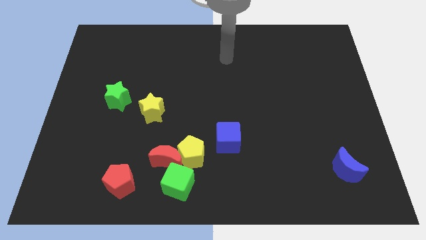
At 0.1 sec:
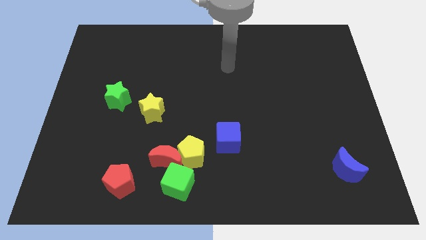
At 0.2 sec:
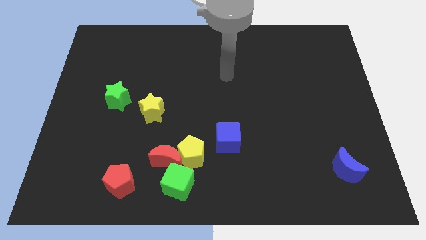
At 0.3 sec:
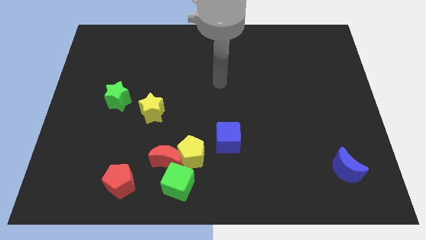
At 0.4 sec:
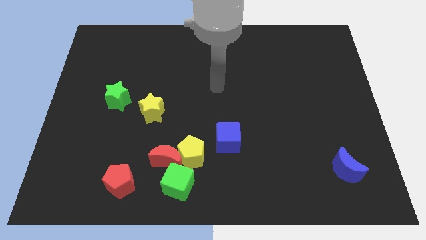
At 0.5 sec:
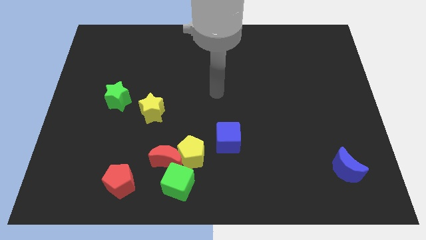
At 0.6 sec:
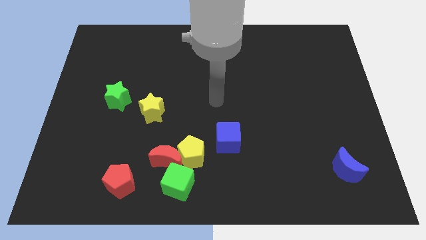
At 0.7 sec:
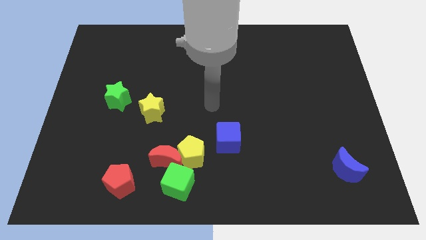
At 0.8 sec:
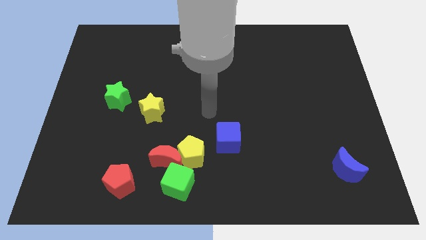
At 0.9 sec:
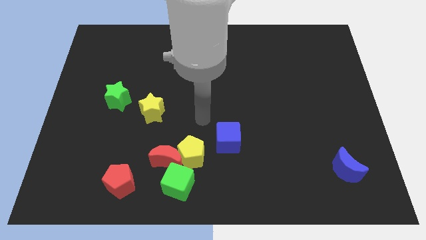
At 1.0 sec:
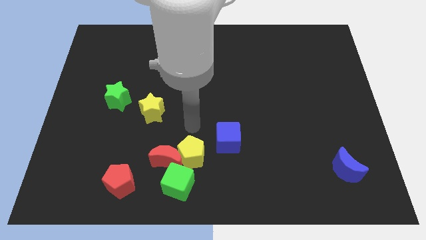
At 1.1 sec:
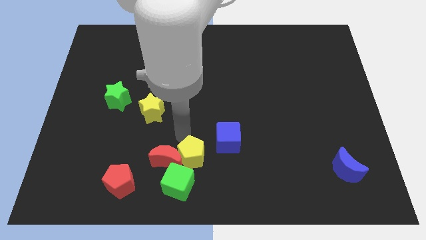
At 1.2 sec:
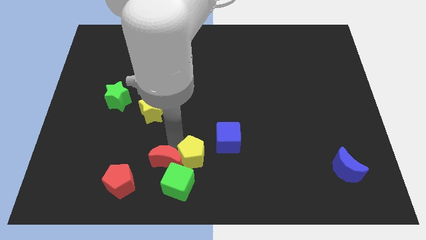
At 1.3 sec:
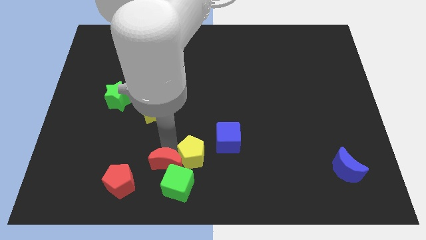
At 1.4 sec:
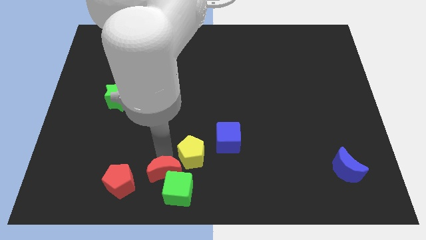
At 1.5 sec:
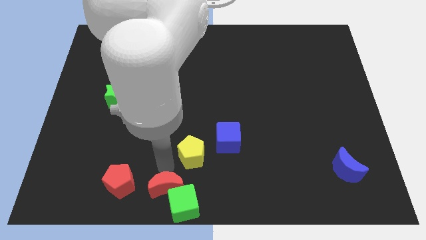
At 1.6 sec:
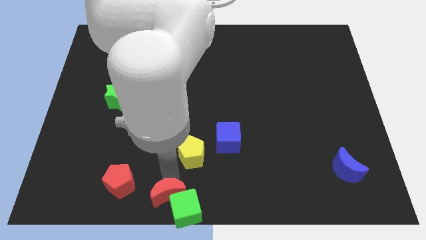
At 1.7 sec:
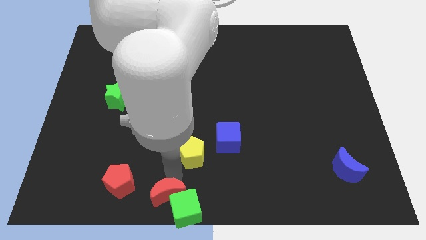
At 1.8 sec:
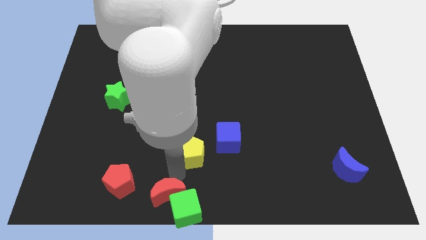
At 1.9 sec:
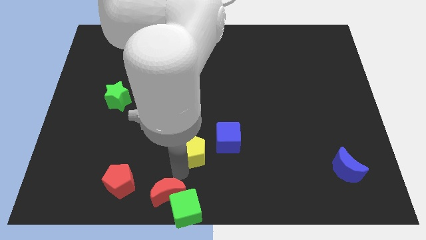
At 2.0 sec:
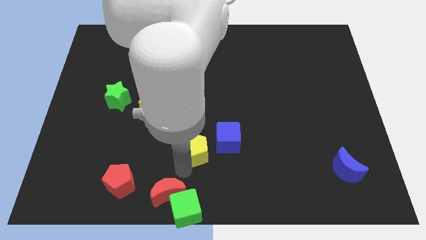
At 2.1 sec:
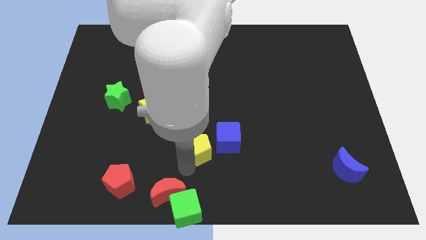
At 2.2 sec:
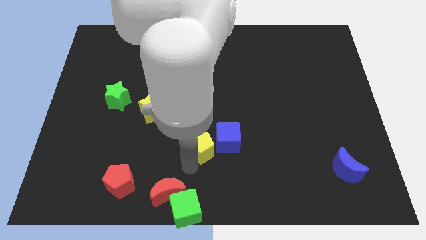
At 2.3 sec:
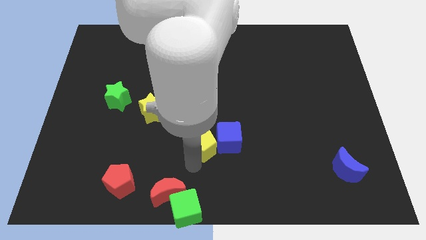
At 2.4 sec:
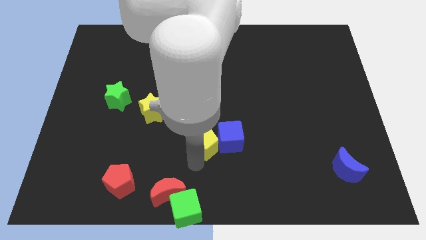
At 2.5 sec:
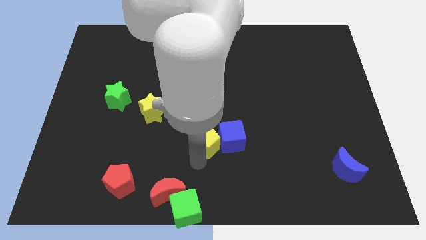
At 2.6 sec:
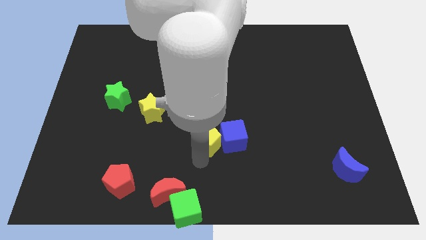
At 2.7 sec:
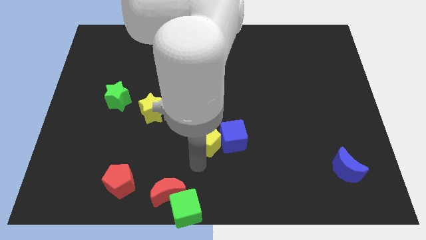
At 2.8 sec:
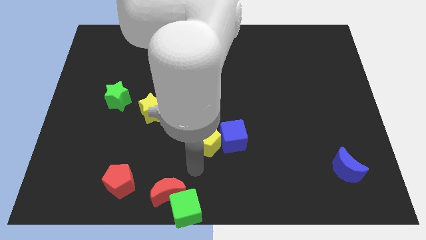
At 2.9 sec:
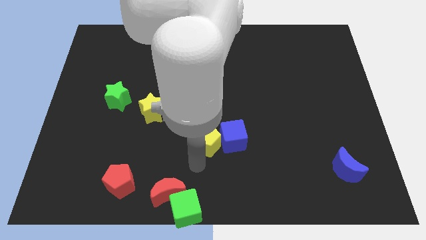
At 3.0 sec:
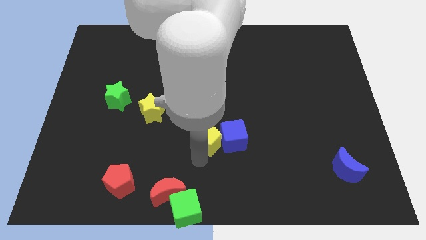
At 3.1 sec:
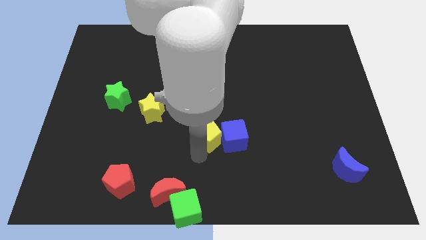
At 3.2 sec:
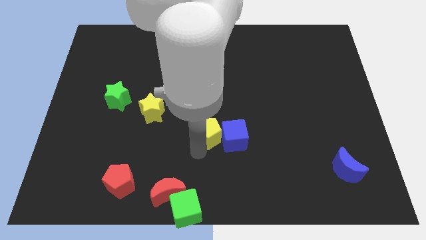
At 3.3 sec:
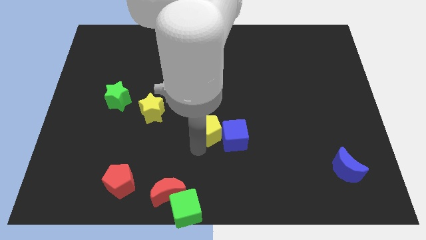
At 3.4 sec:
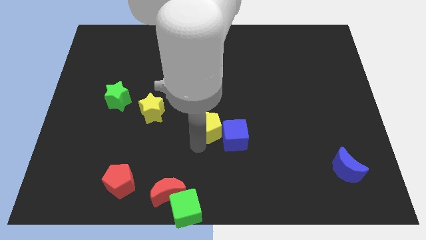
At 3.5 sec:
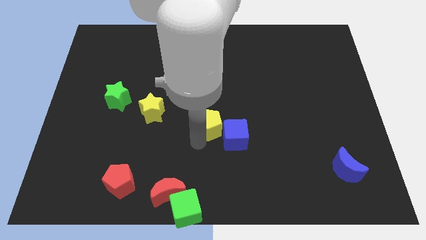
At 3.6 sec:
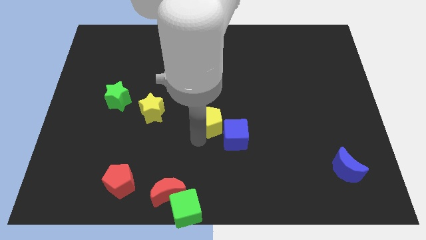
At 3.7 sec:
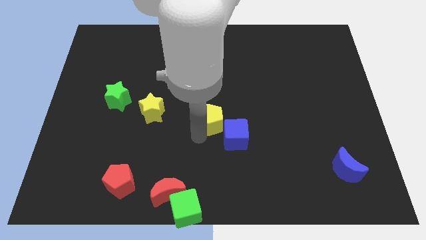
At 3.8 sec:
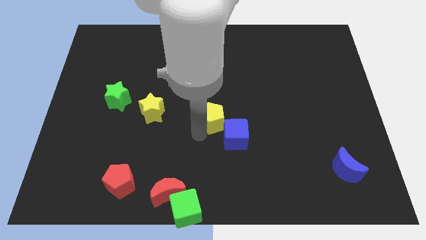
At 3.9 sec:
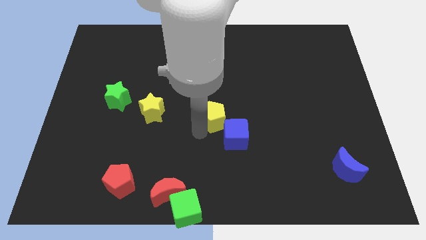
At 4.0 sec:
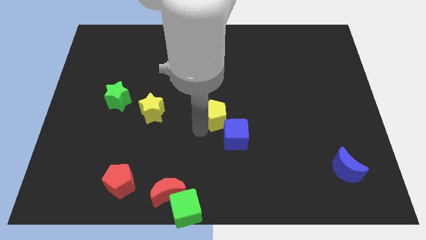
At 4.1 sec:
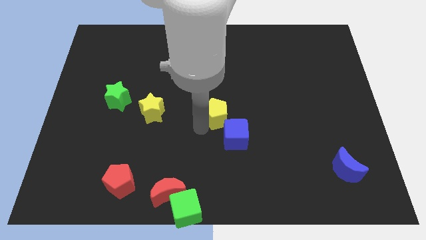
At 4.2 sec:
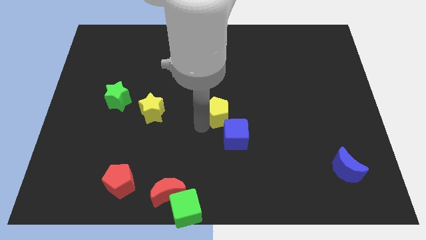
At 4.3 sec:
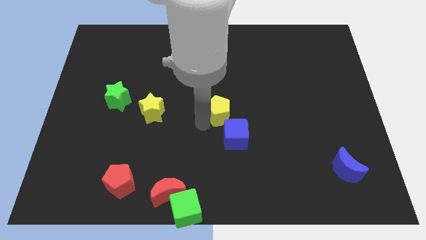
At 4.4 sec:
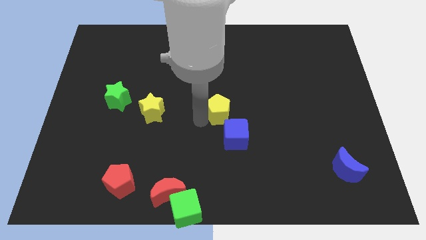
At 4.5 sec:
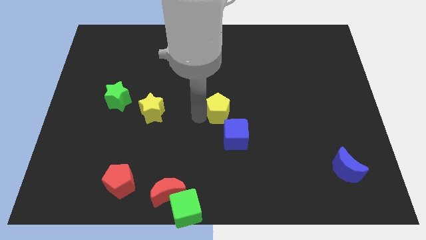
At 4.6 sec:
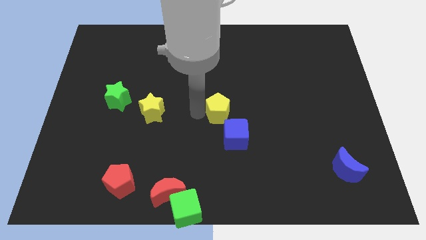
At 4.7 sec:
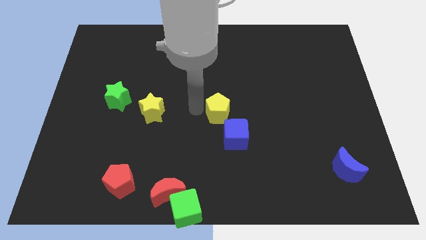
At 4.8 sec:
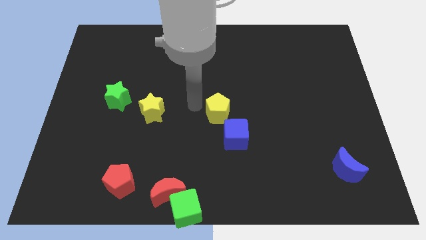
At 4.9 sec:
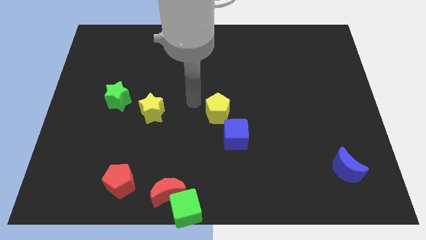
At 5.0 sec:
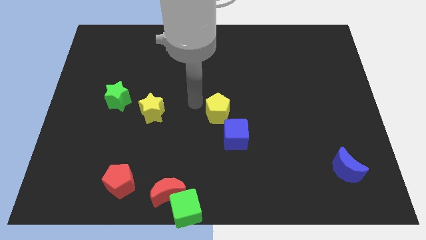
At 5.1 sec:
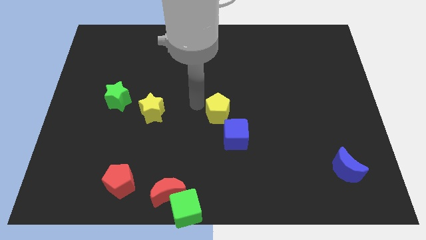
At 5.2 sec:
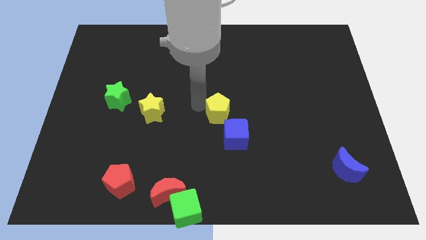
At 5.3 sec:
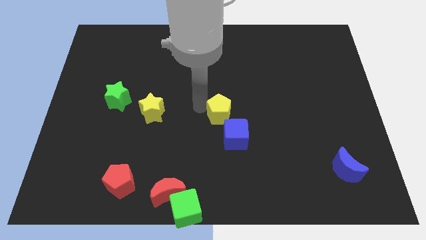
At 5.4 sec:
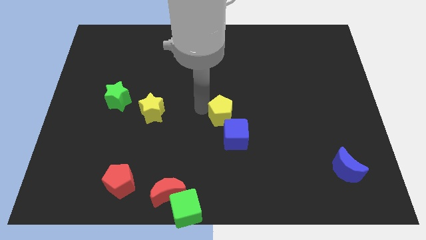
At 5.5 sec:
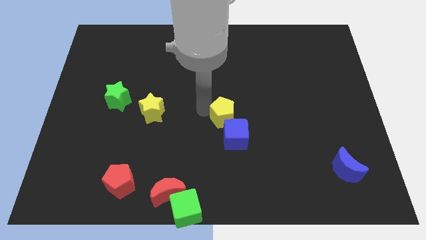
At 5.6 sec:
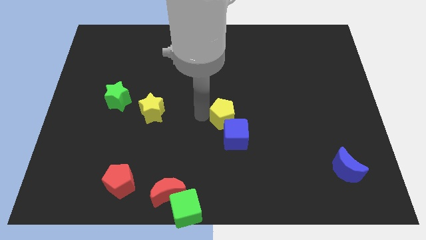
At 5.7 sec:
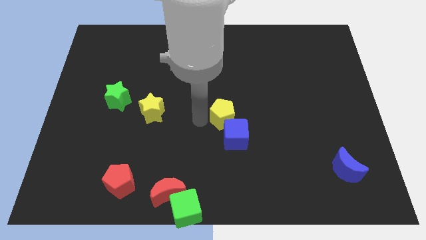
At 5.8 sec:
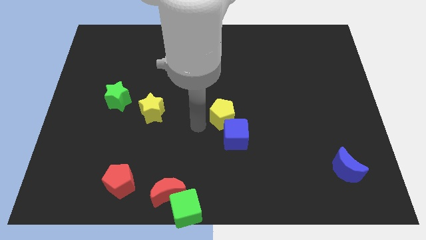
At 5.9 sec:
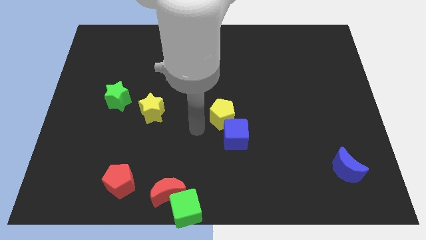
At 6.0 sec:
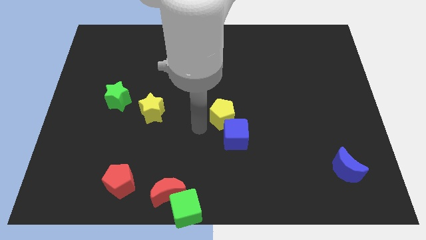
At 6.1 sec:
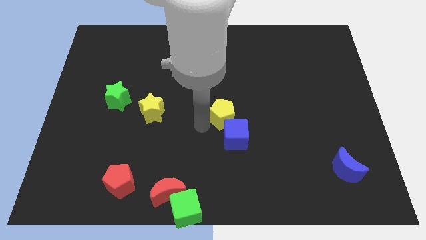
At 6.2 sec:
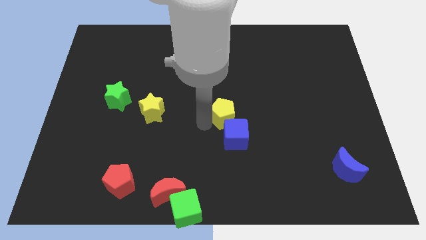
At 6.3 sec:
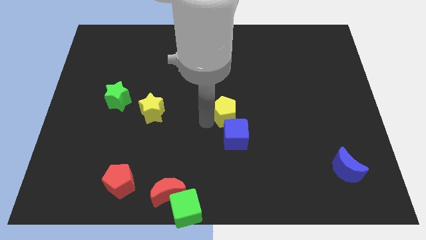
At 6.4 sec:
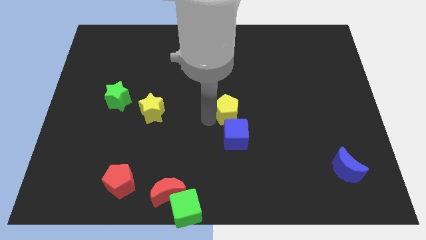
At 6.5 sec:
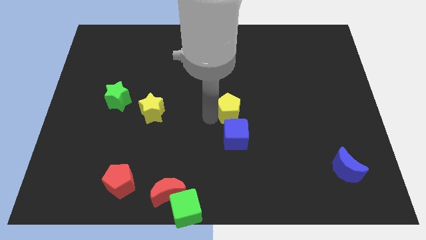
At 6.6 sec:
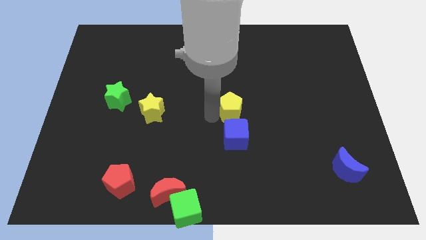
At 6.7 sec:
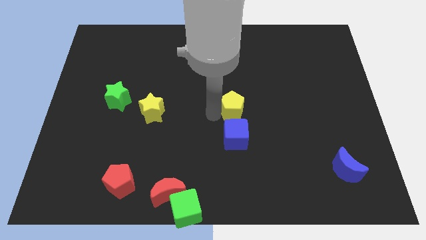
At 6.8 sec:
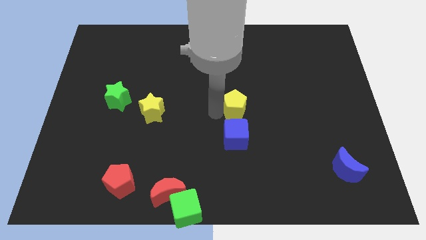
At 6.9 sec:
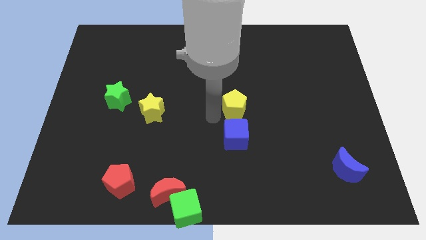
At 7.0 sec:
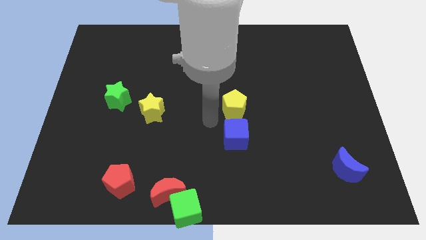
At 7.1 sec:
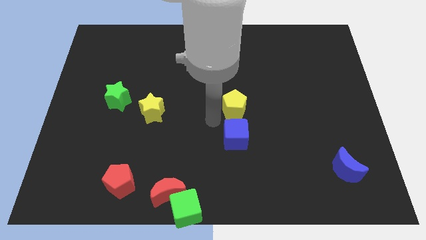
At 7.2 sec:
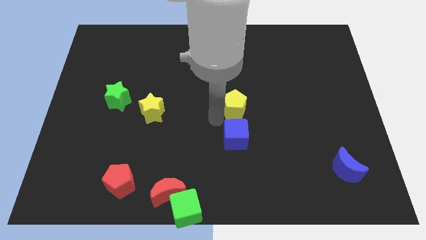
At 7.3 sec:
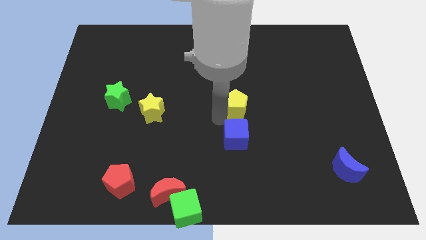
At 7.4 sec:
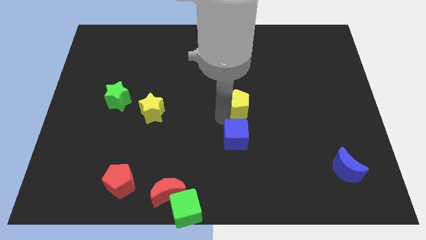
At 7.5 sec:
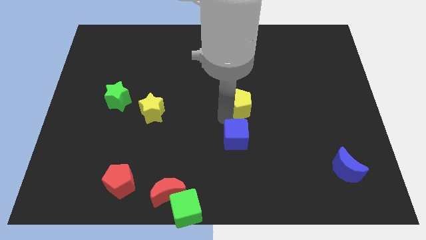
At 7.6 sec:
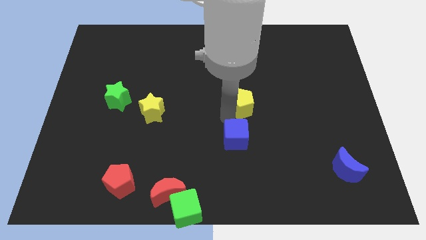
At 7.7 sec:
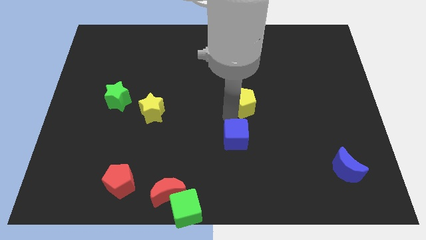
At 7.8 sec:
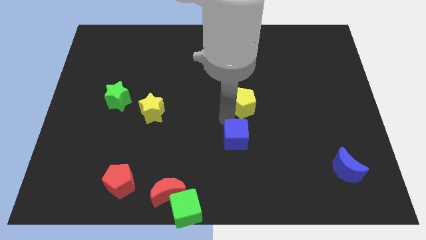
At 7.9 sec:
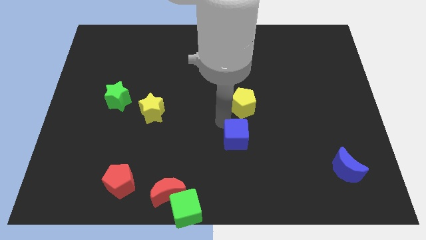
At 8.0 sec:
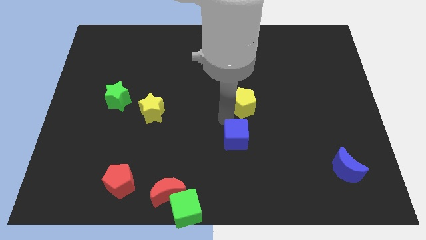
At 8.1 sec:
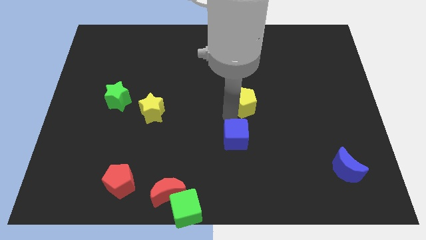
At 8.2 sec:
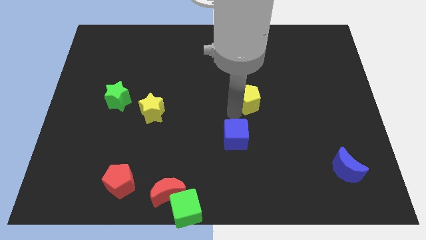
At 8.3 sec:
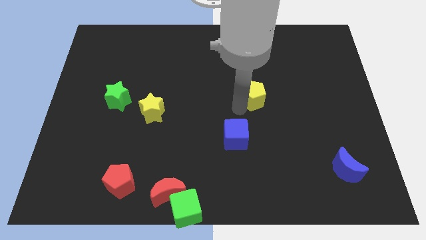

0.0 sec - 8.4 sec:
slide the yellow pentagon diagonally upwards and to the right
